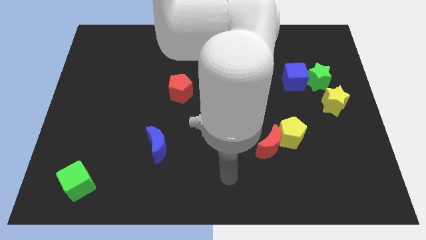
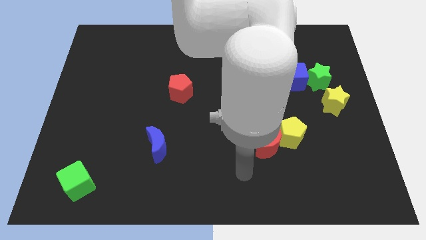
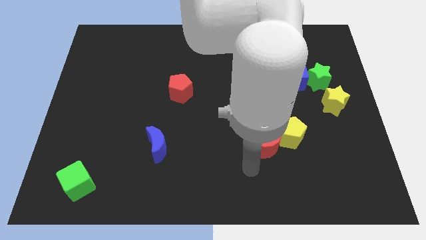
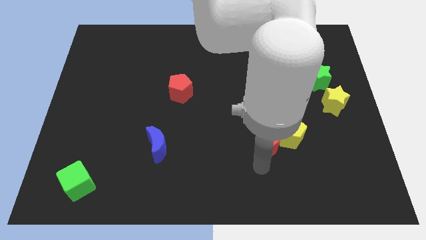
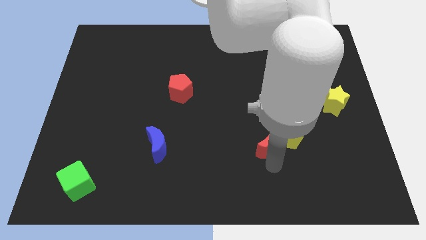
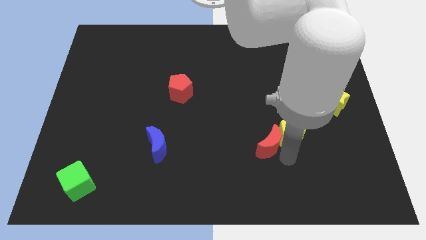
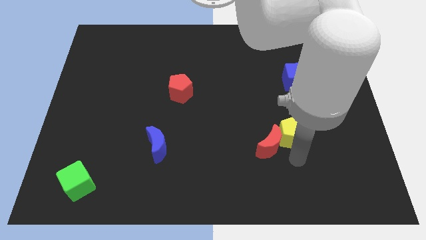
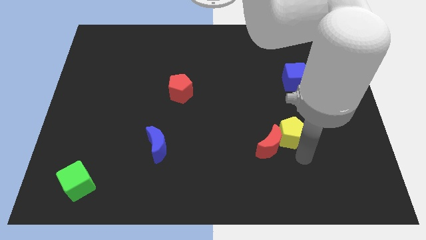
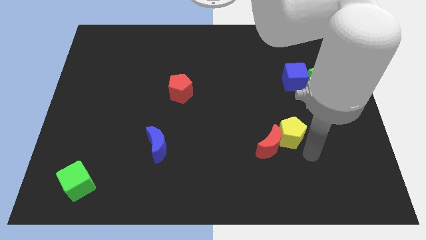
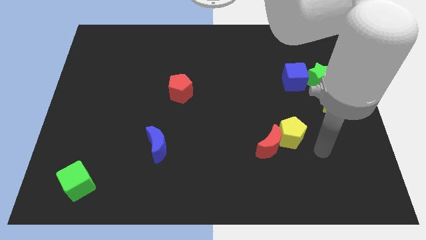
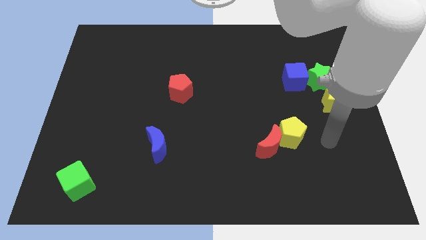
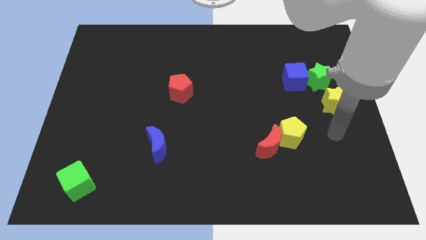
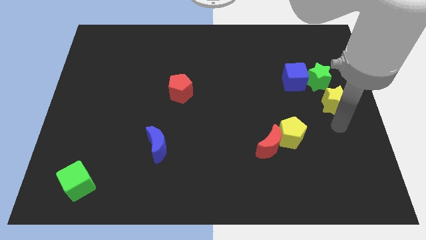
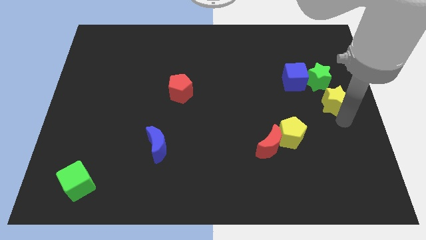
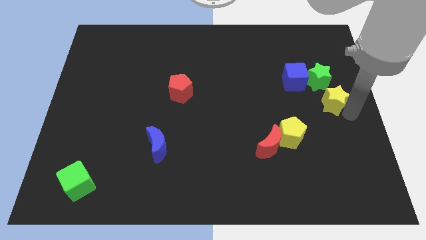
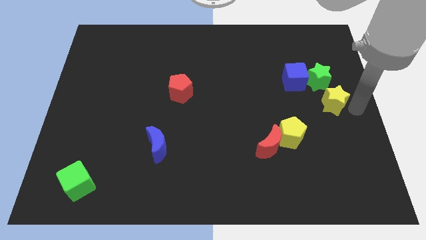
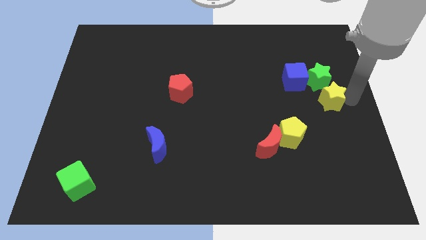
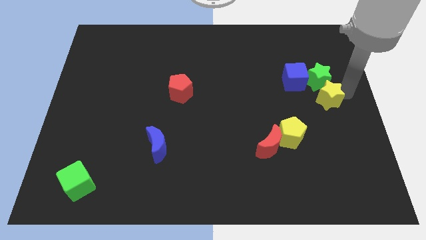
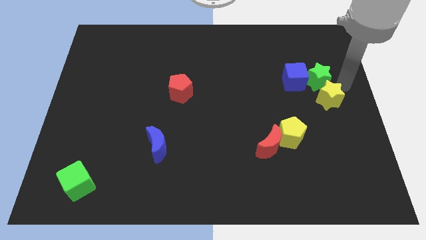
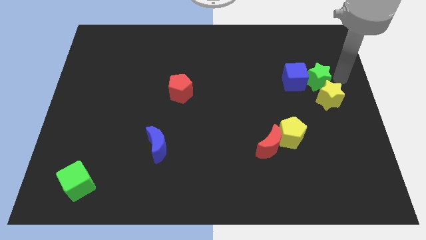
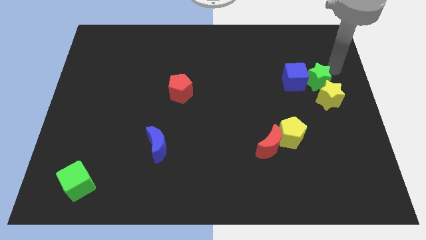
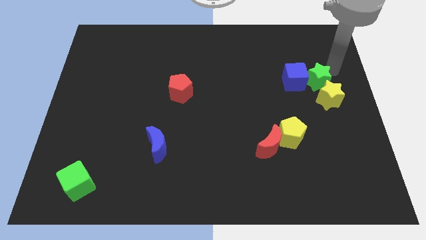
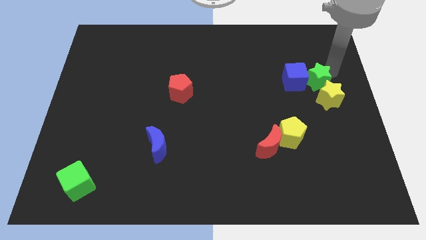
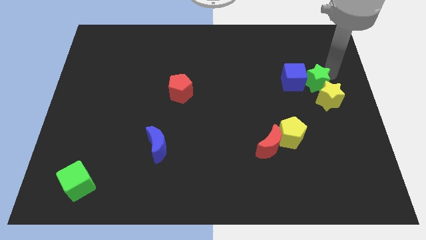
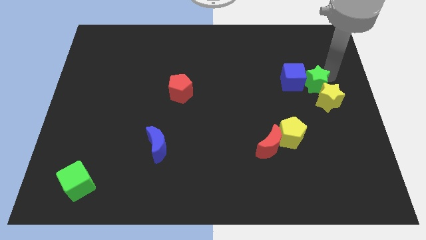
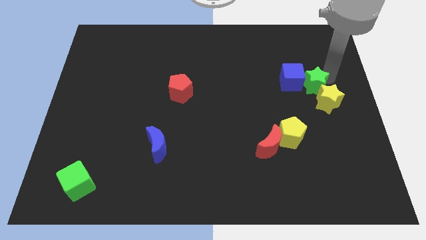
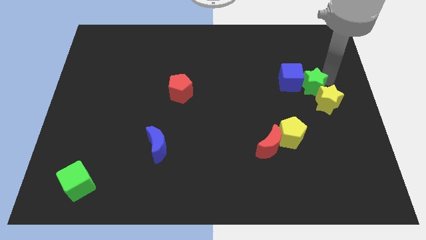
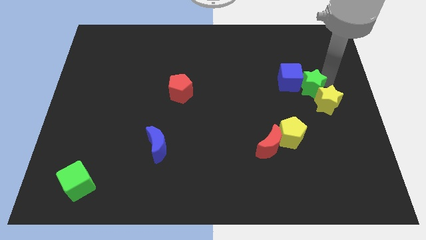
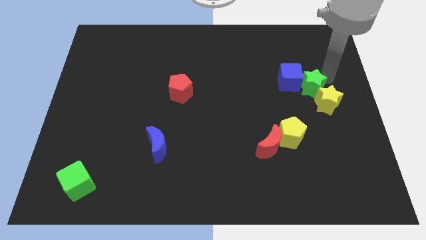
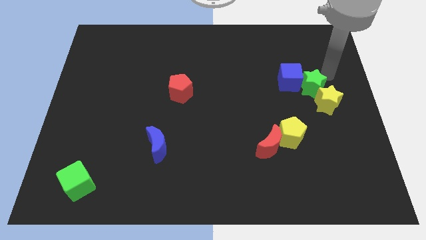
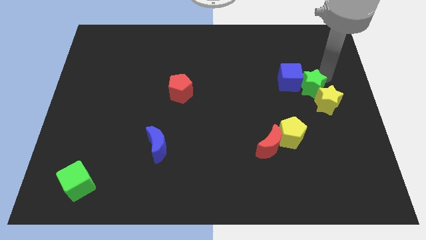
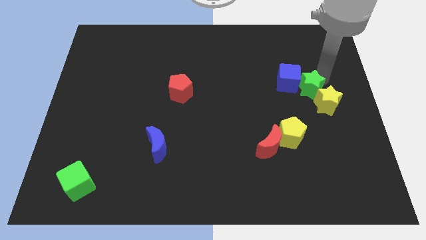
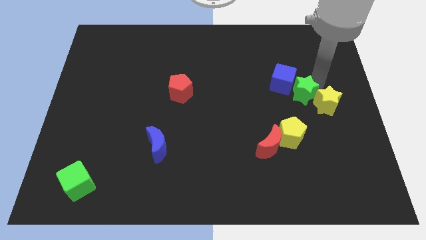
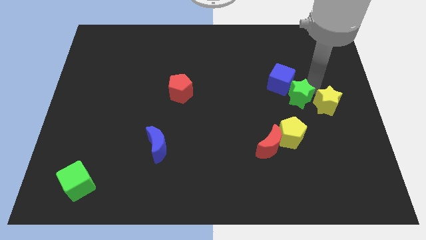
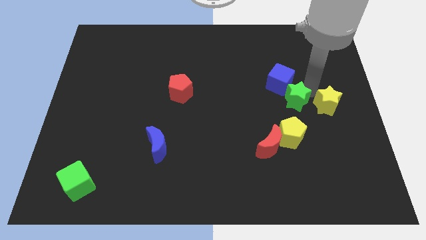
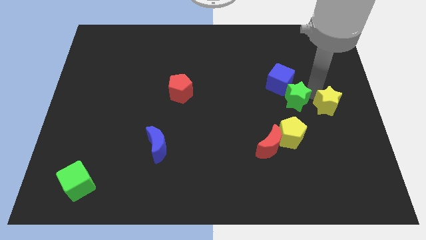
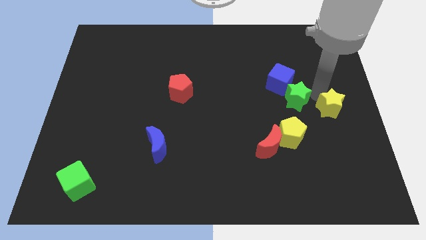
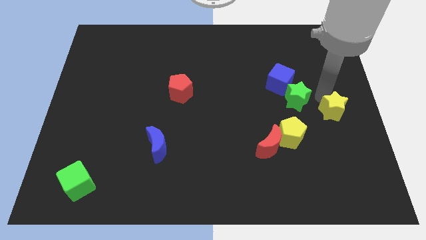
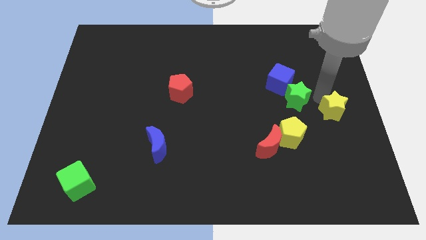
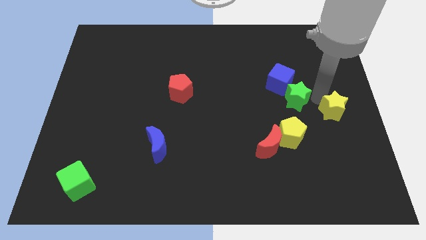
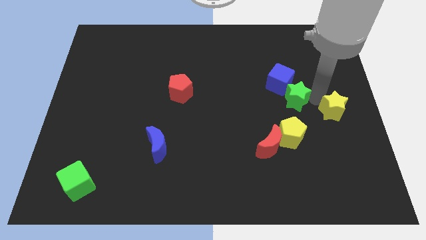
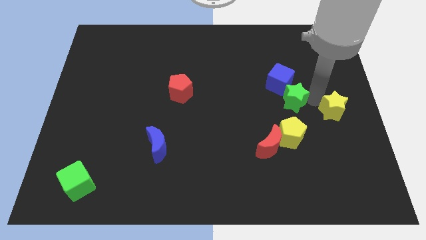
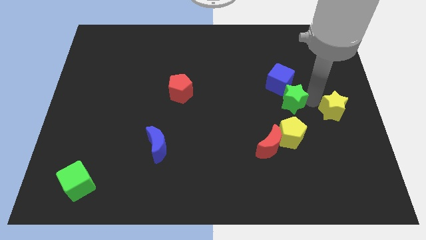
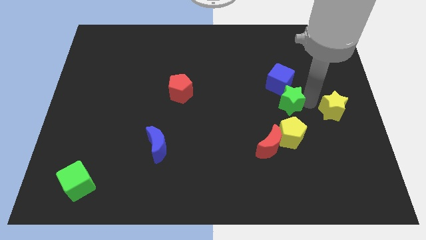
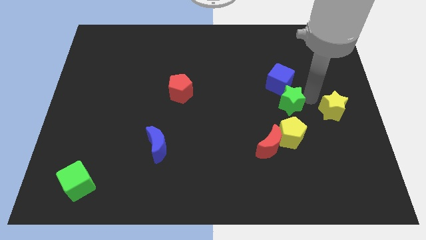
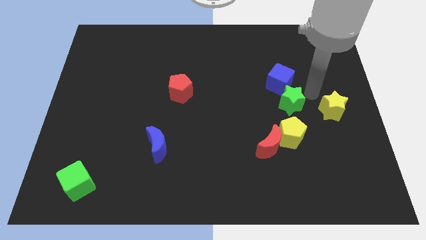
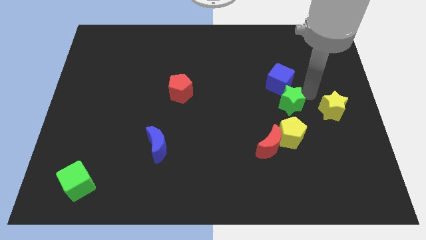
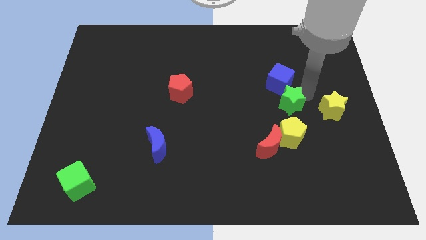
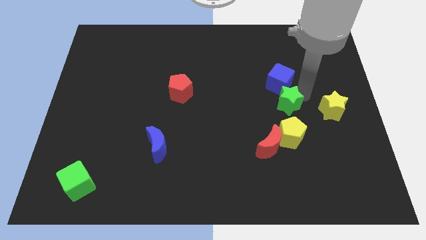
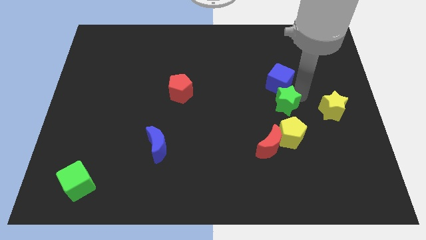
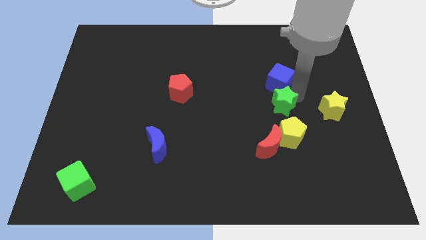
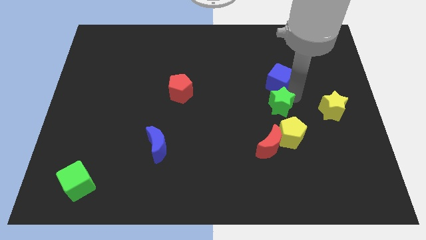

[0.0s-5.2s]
move the green star to the top left of the yellow pentagon

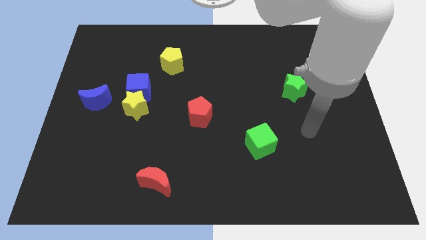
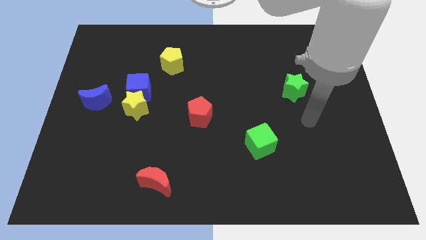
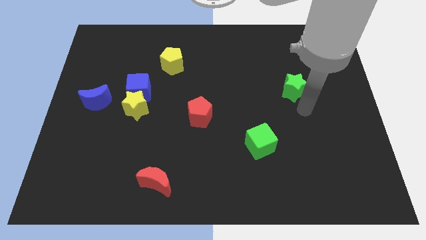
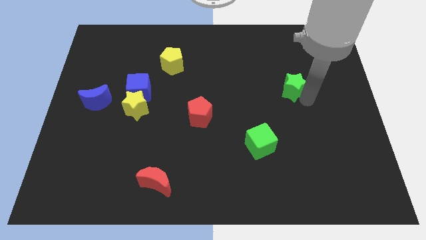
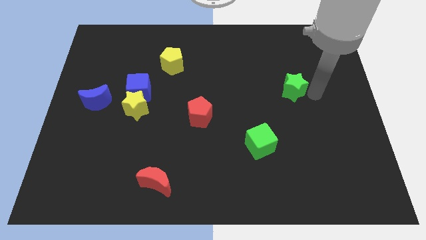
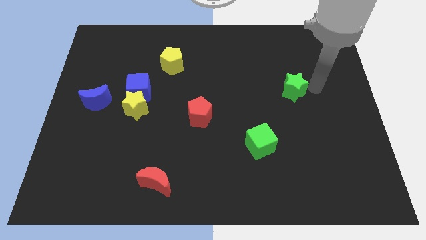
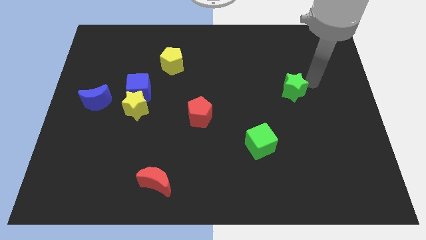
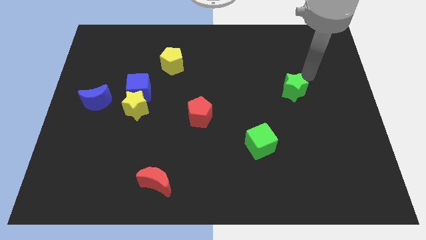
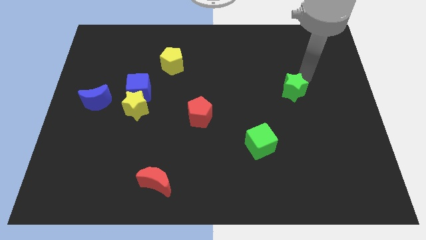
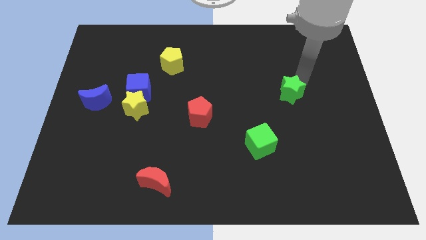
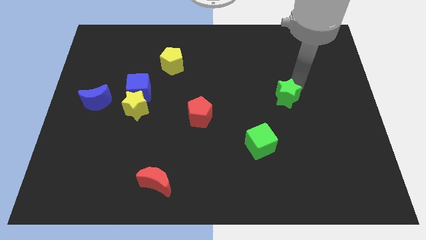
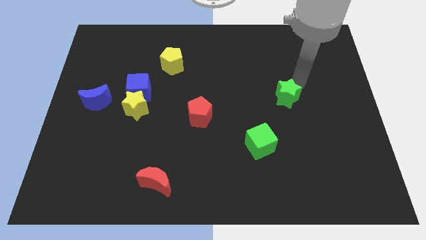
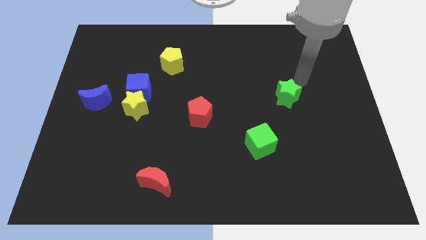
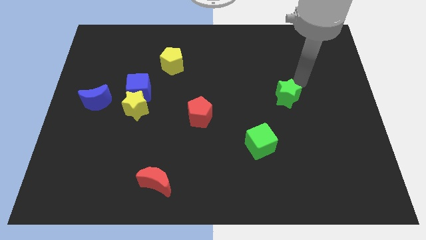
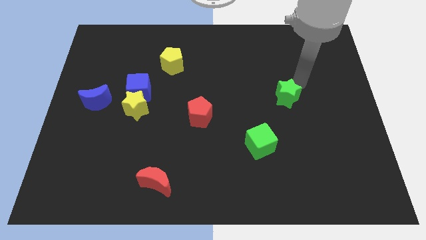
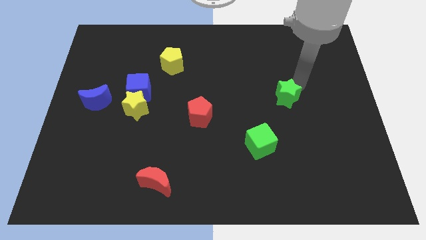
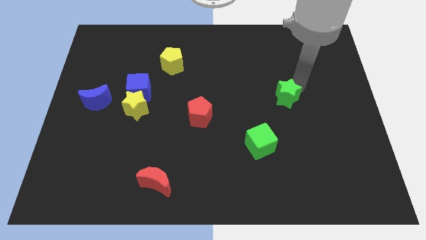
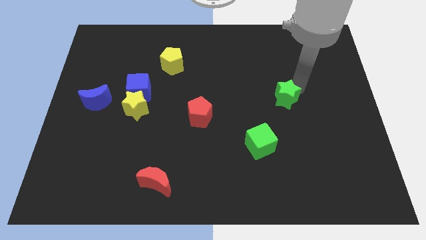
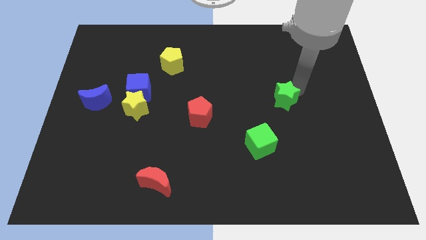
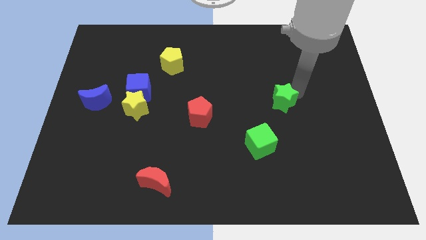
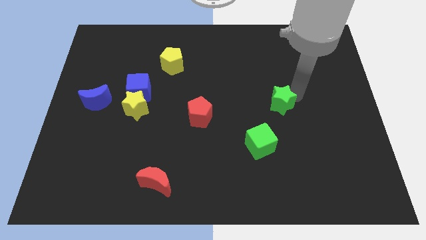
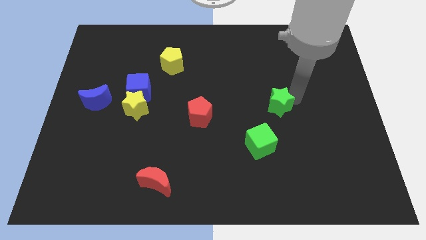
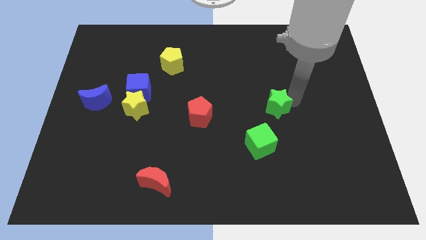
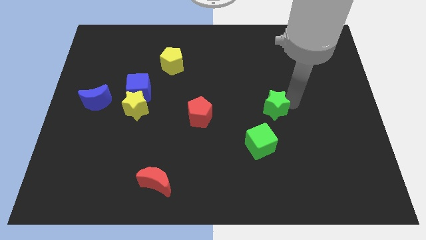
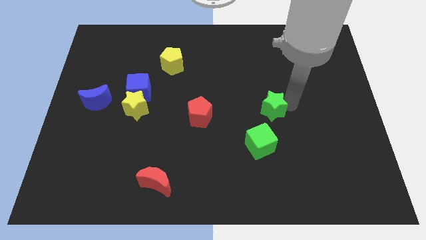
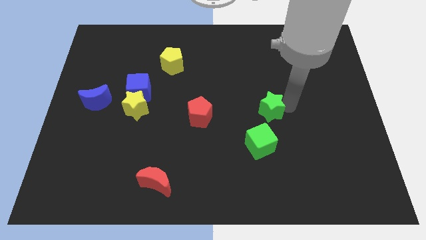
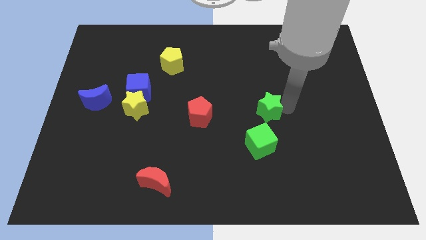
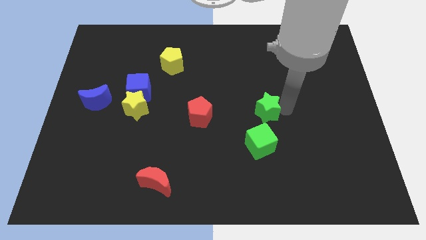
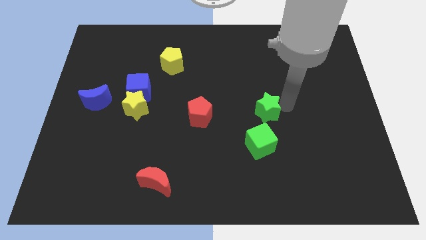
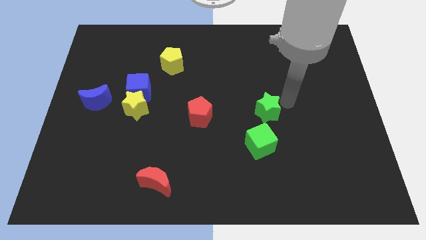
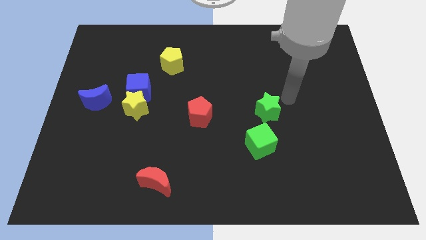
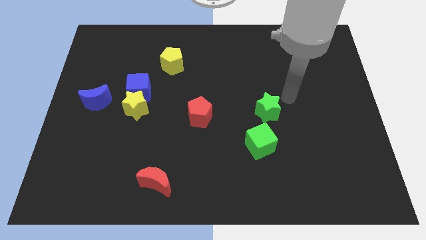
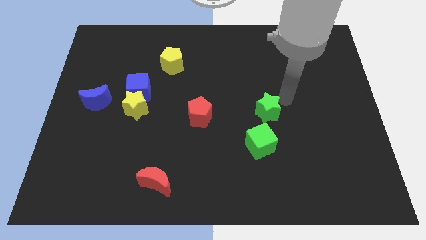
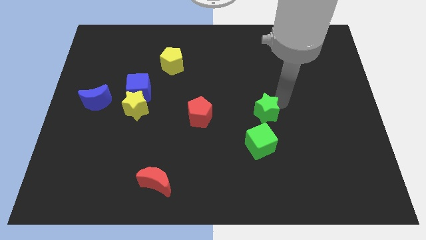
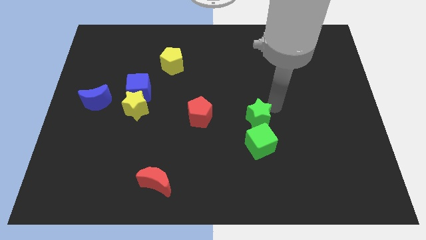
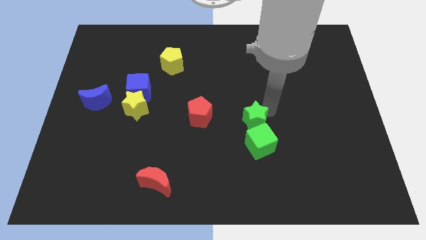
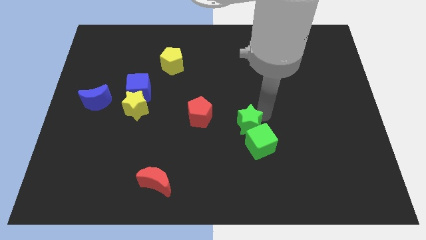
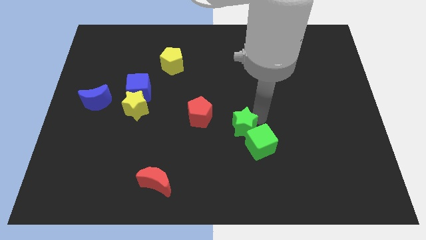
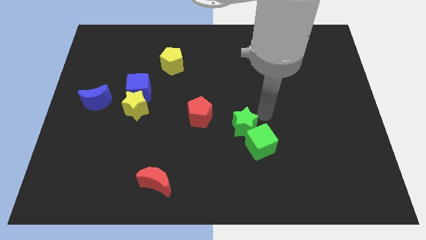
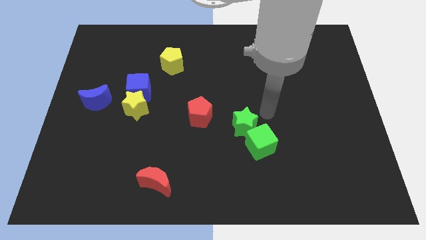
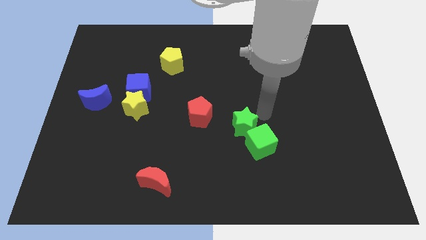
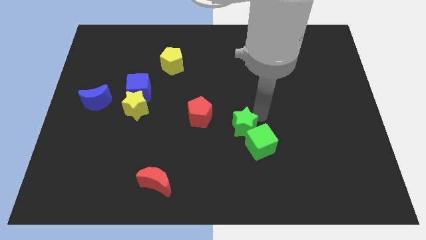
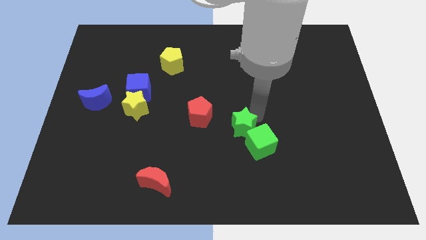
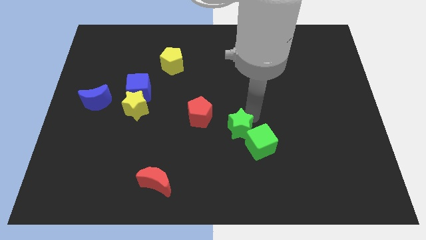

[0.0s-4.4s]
move the green star just left of the green cube
